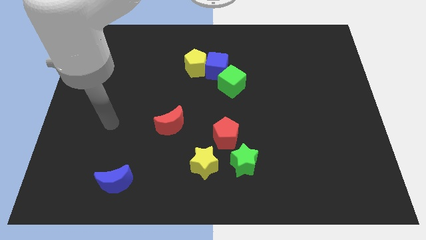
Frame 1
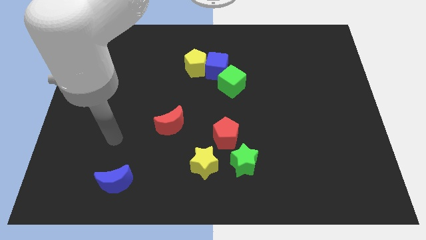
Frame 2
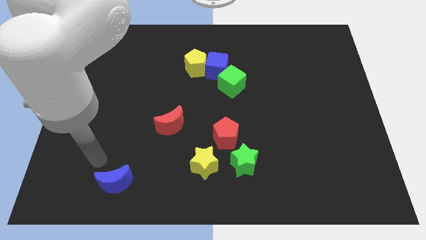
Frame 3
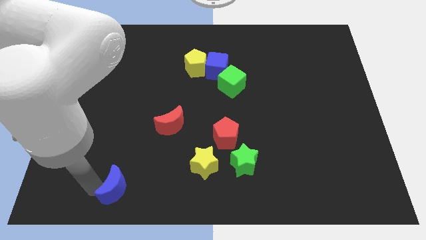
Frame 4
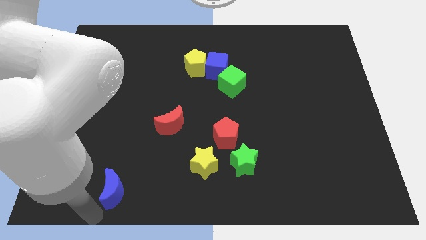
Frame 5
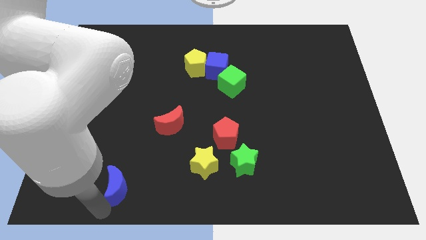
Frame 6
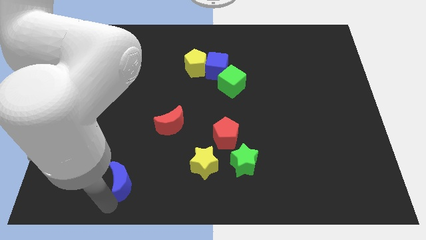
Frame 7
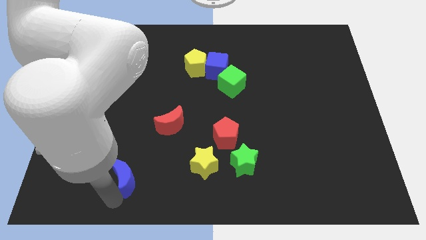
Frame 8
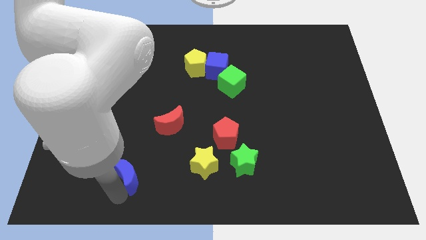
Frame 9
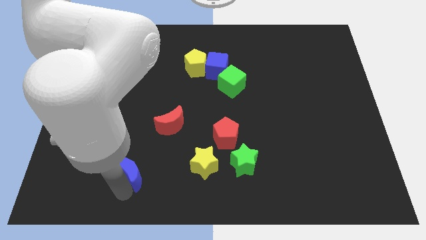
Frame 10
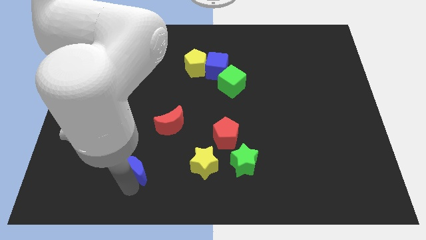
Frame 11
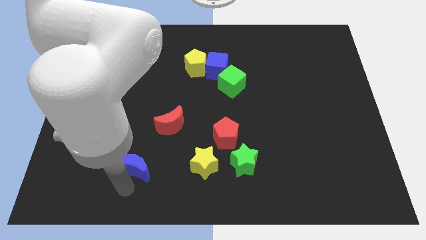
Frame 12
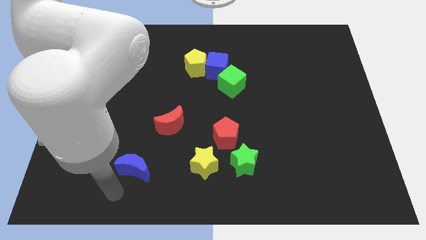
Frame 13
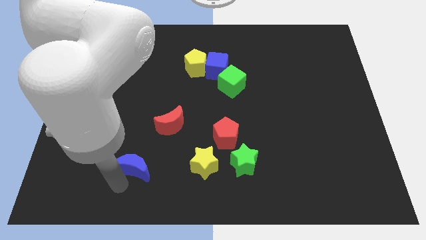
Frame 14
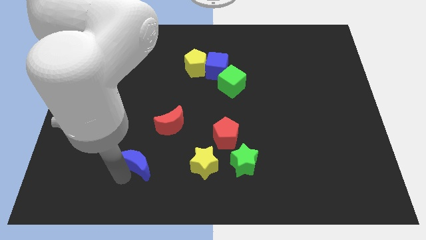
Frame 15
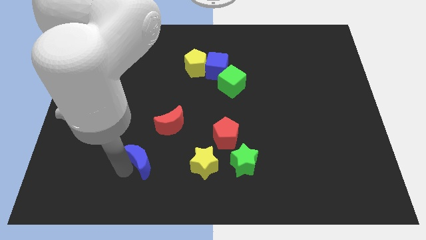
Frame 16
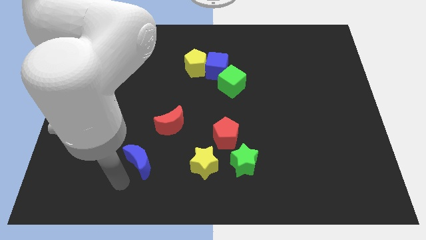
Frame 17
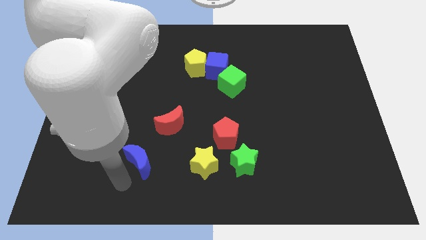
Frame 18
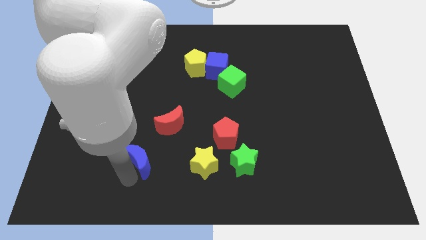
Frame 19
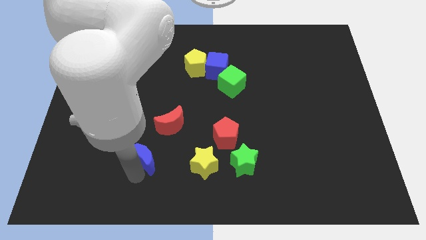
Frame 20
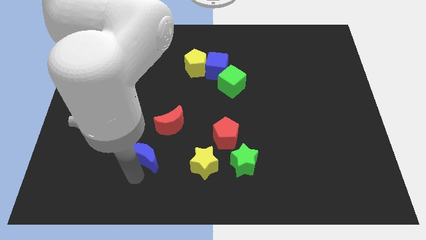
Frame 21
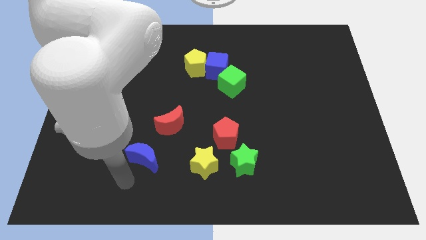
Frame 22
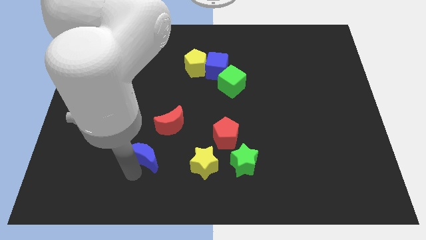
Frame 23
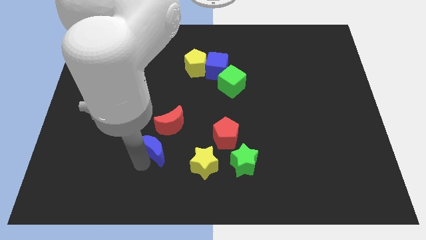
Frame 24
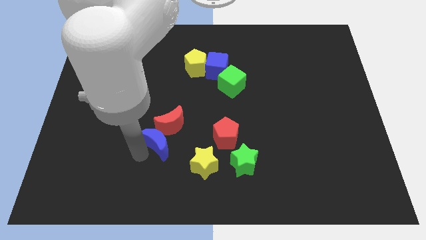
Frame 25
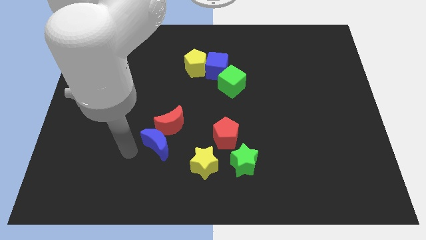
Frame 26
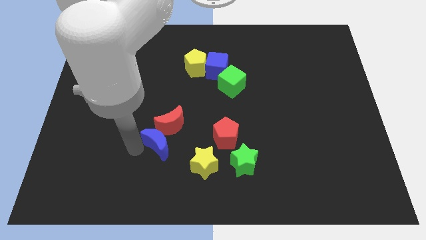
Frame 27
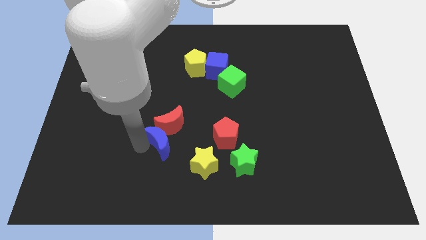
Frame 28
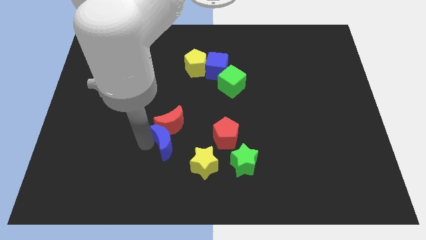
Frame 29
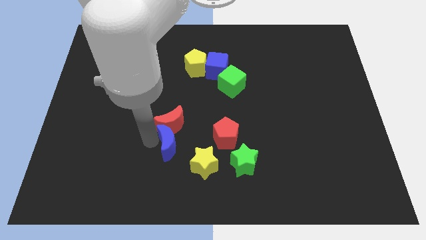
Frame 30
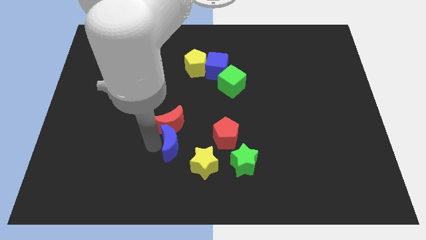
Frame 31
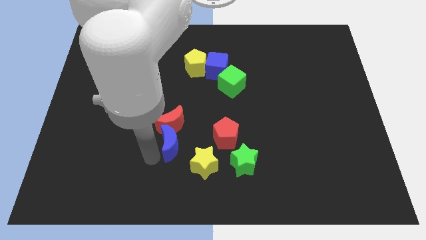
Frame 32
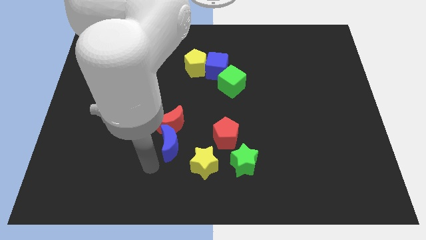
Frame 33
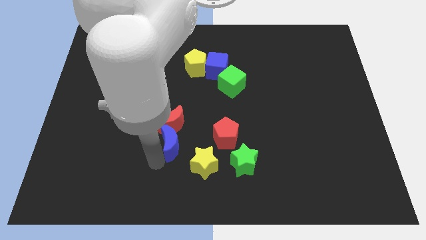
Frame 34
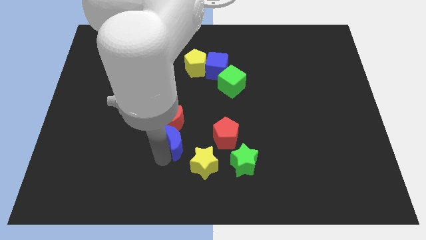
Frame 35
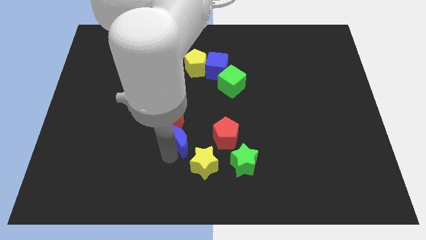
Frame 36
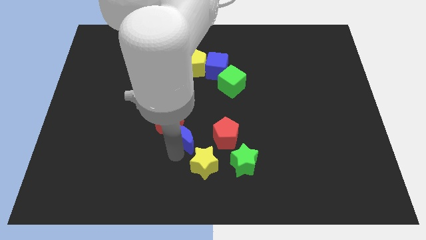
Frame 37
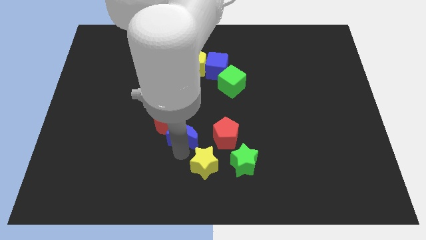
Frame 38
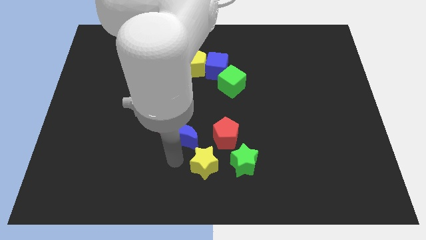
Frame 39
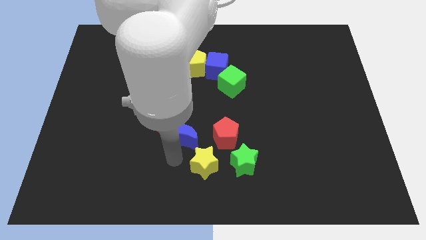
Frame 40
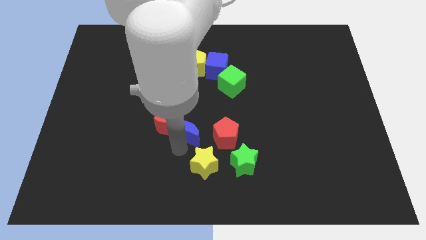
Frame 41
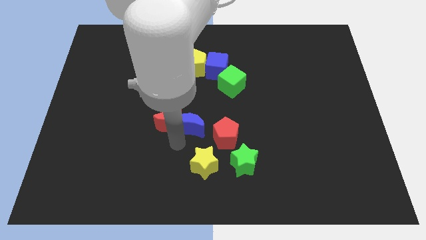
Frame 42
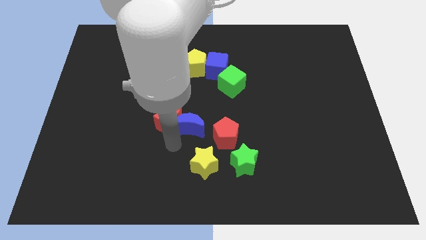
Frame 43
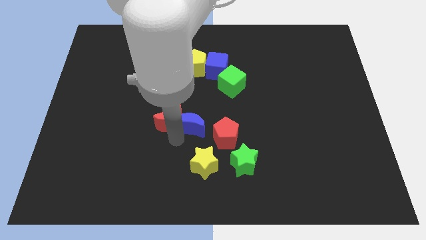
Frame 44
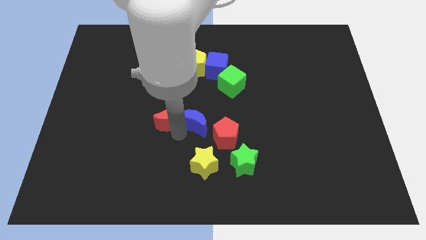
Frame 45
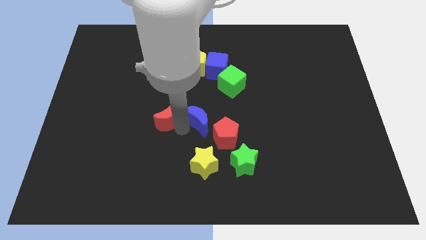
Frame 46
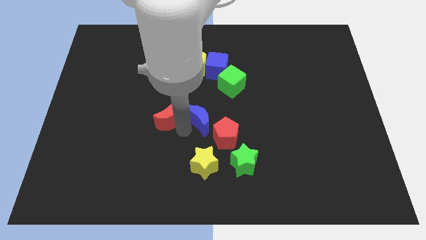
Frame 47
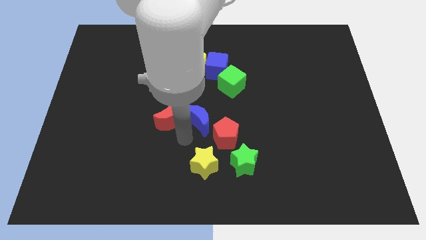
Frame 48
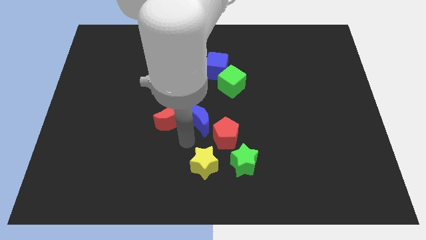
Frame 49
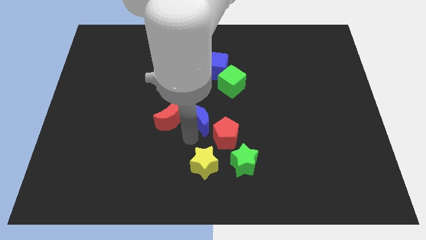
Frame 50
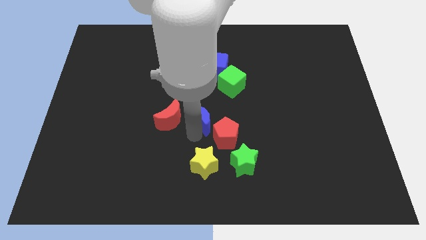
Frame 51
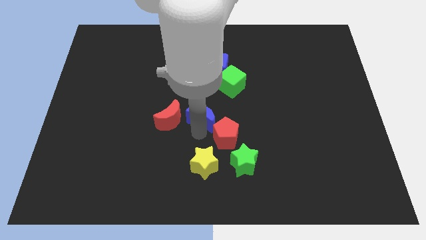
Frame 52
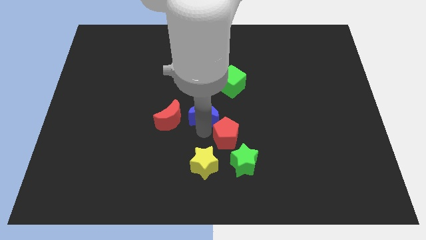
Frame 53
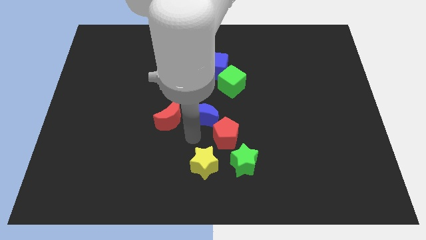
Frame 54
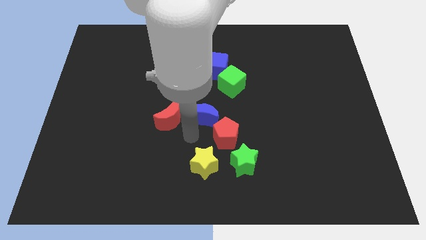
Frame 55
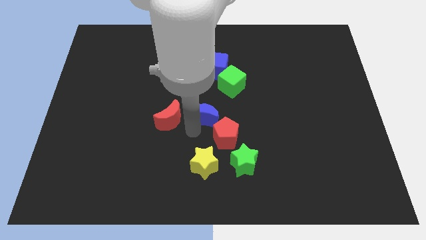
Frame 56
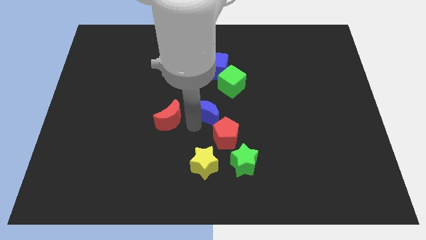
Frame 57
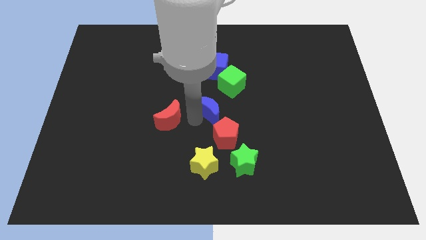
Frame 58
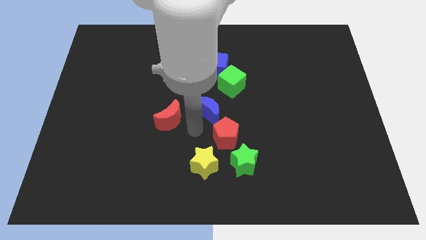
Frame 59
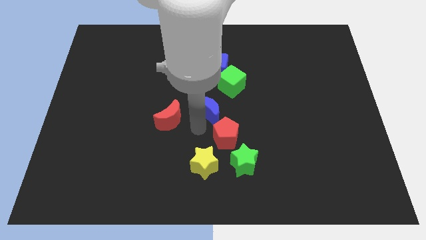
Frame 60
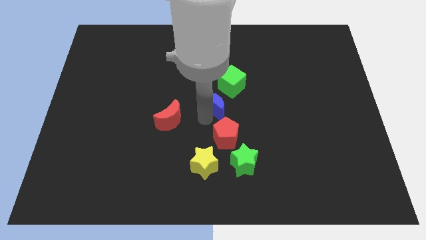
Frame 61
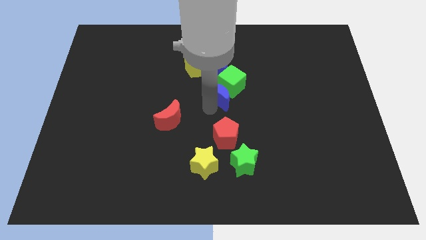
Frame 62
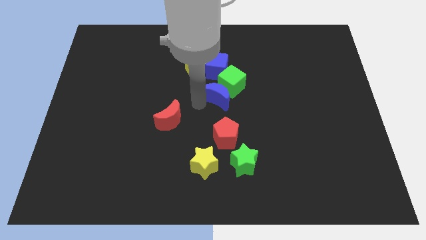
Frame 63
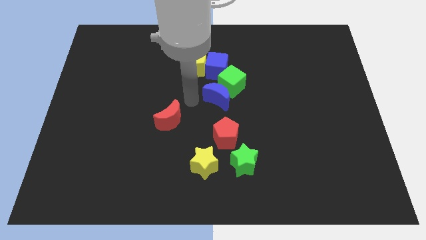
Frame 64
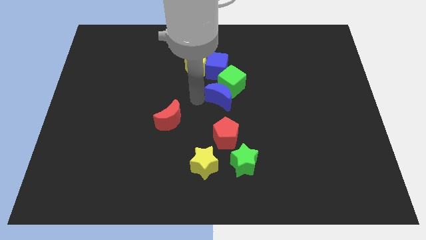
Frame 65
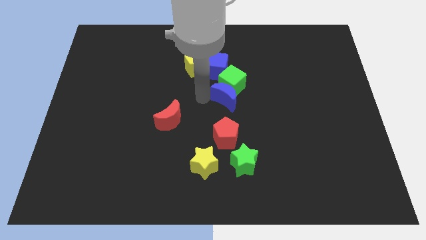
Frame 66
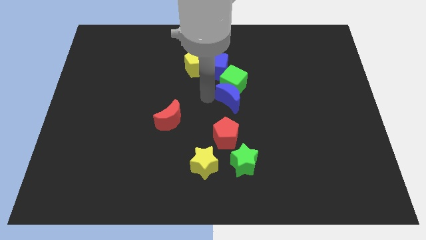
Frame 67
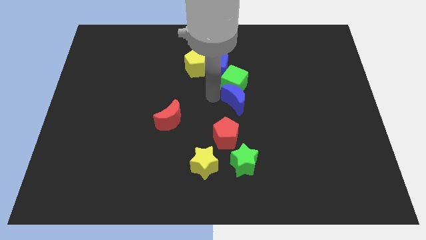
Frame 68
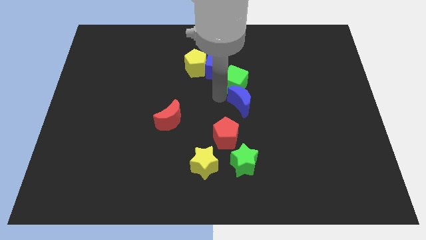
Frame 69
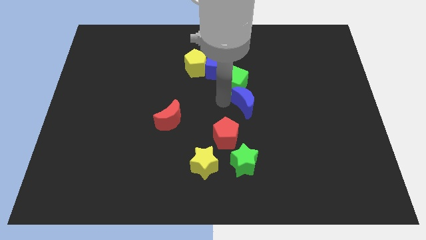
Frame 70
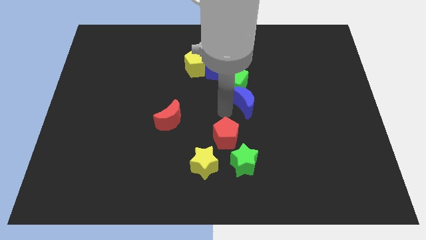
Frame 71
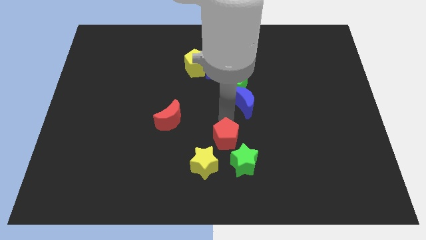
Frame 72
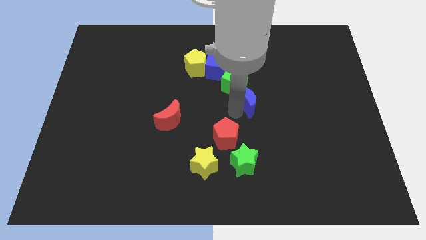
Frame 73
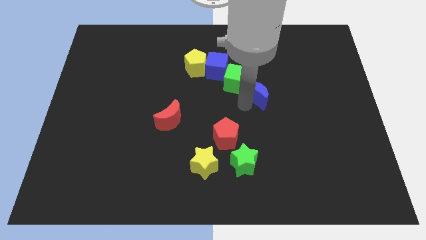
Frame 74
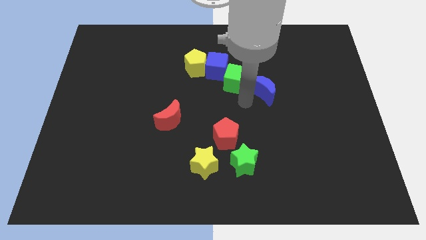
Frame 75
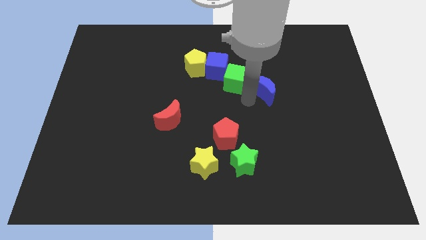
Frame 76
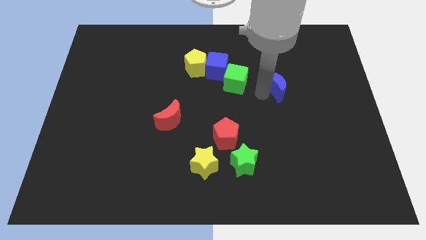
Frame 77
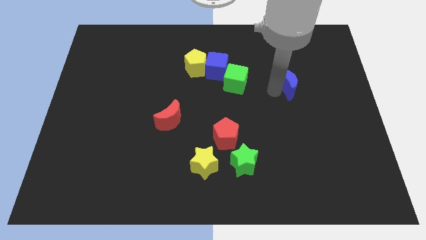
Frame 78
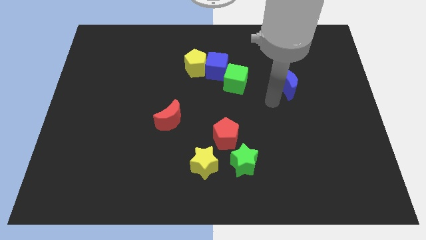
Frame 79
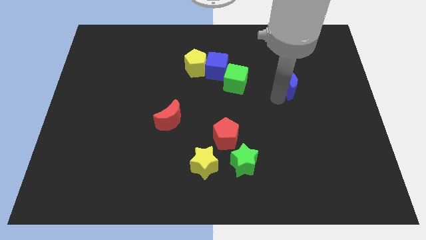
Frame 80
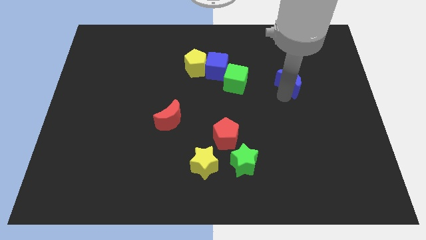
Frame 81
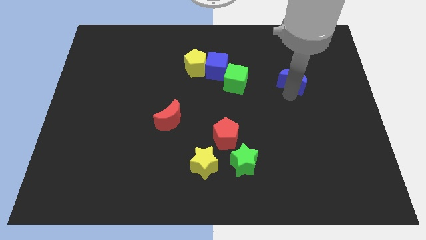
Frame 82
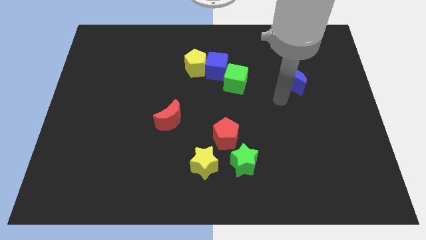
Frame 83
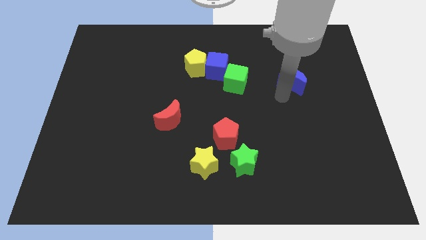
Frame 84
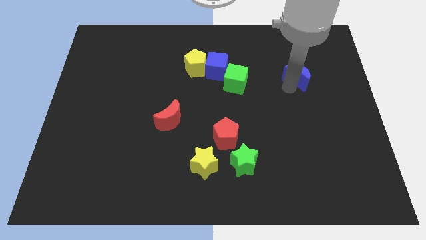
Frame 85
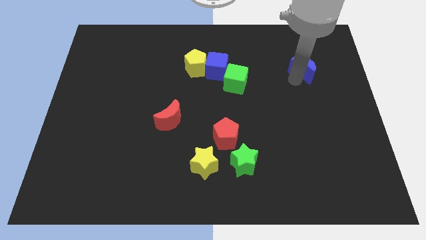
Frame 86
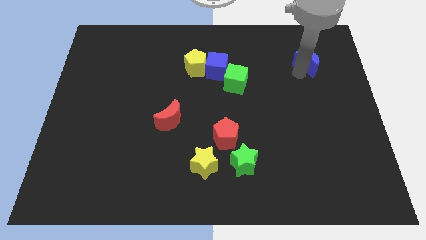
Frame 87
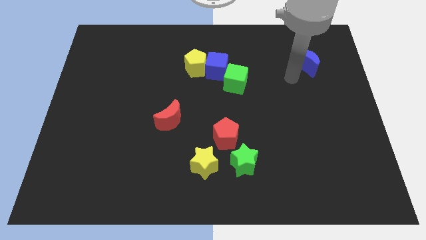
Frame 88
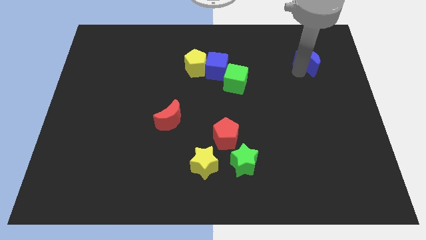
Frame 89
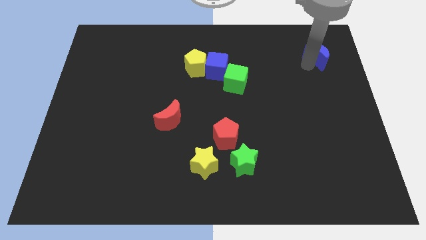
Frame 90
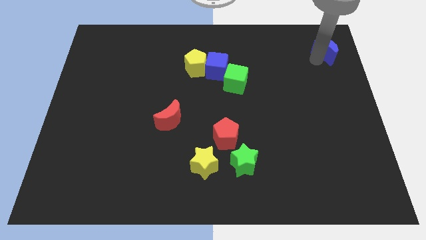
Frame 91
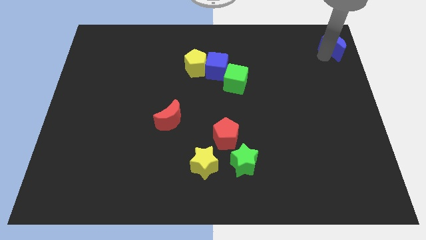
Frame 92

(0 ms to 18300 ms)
push the blue moon to the upper right corner
